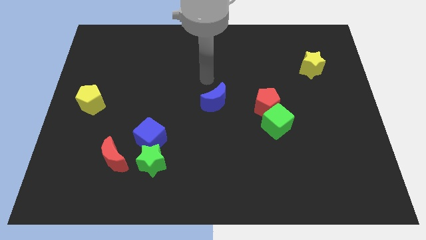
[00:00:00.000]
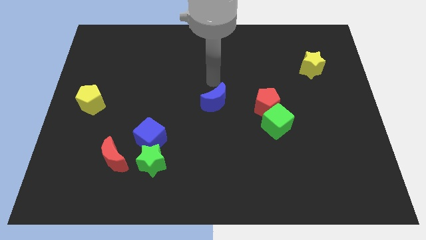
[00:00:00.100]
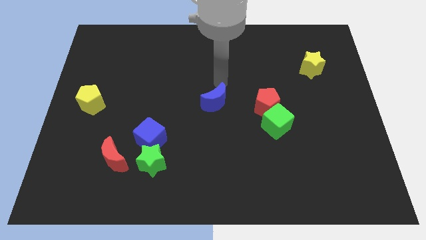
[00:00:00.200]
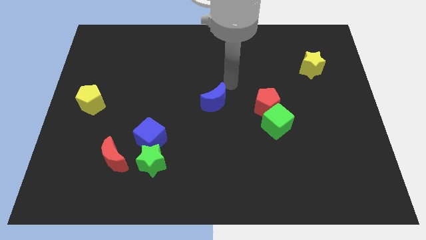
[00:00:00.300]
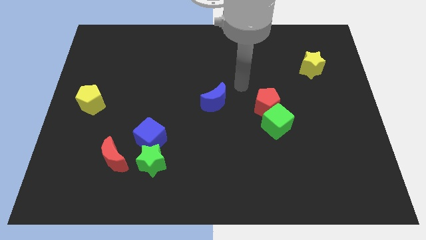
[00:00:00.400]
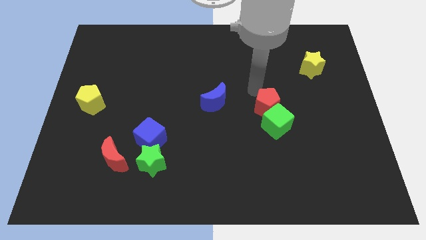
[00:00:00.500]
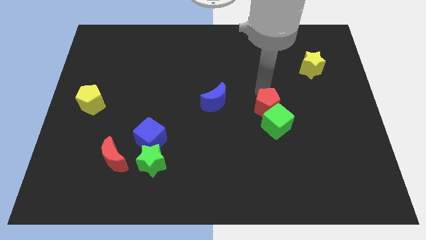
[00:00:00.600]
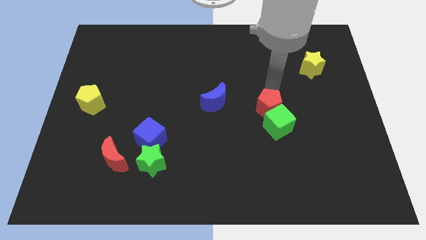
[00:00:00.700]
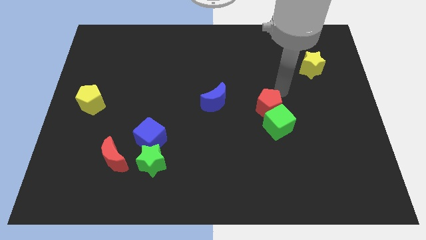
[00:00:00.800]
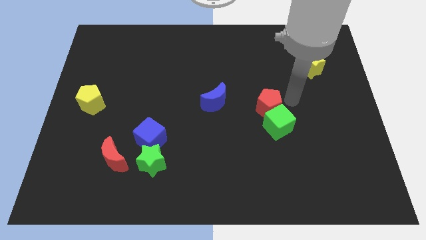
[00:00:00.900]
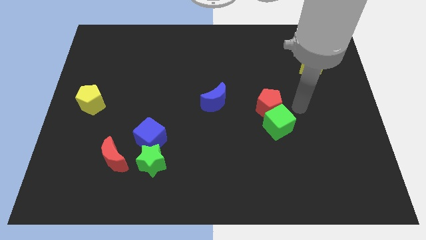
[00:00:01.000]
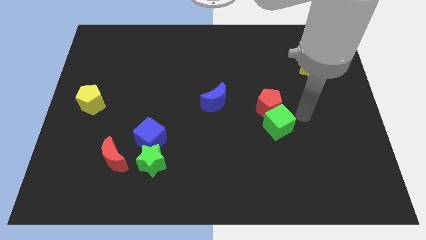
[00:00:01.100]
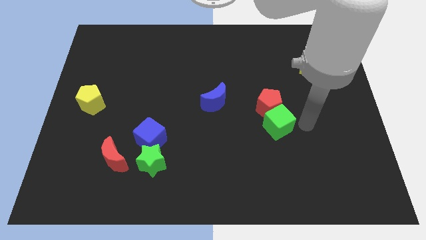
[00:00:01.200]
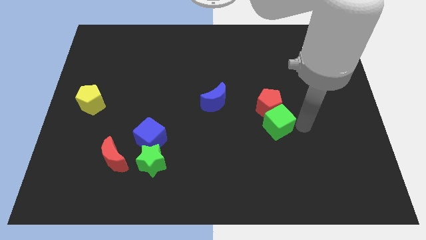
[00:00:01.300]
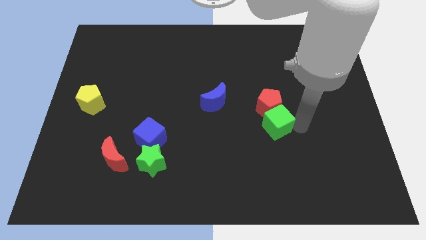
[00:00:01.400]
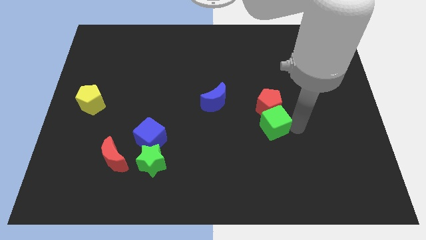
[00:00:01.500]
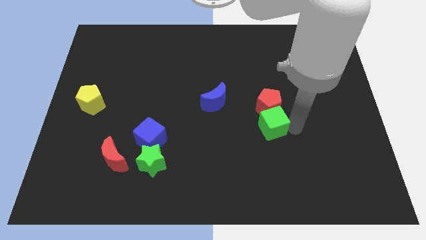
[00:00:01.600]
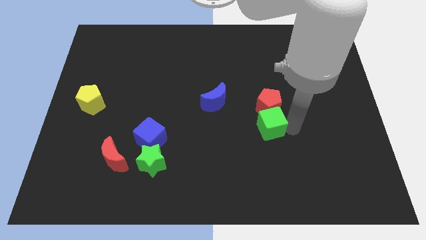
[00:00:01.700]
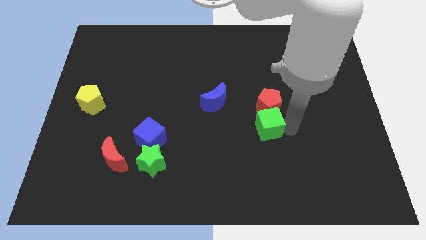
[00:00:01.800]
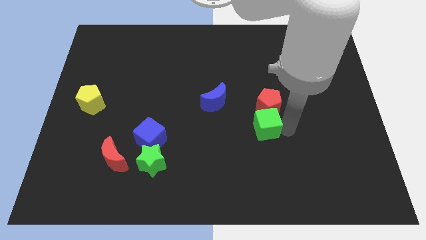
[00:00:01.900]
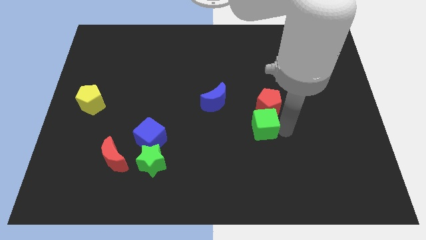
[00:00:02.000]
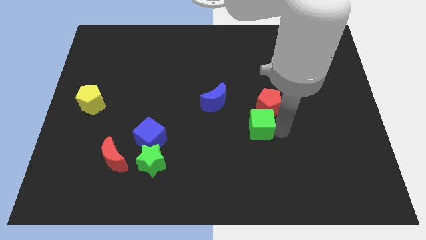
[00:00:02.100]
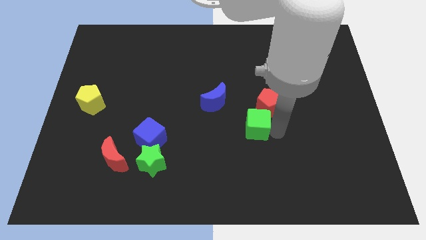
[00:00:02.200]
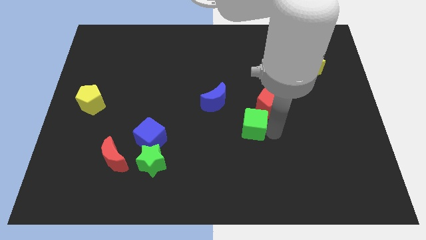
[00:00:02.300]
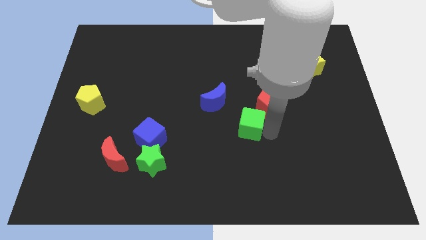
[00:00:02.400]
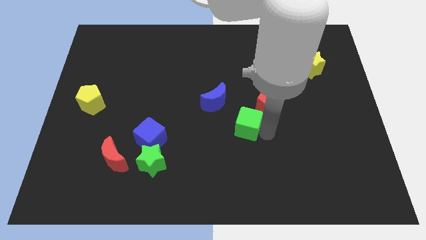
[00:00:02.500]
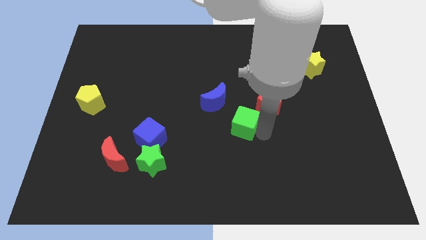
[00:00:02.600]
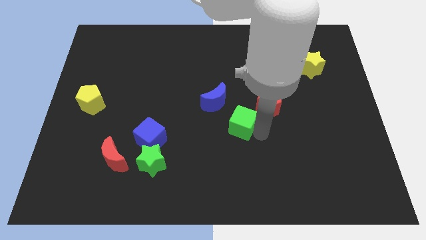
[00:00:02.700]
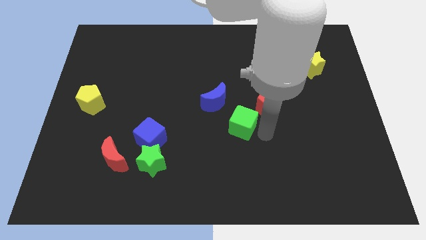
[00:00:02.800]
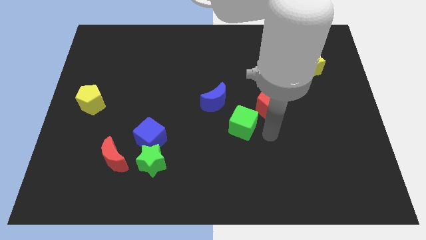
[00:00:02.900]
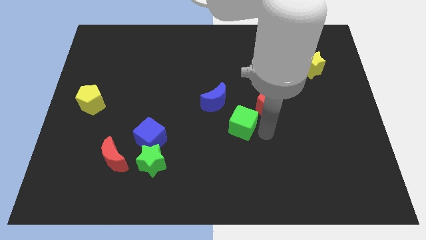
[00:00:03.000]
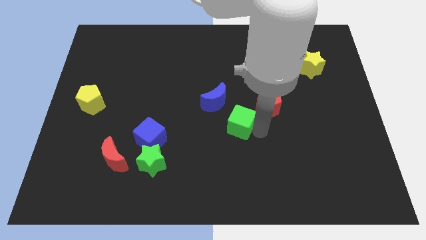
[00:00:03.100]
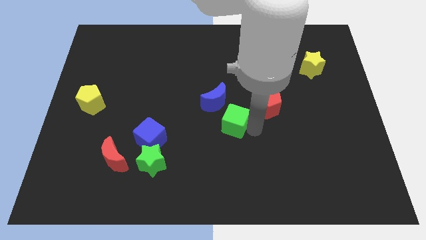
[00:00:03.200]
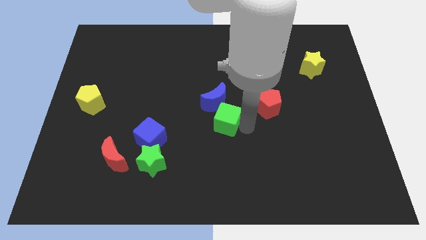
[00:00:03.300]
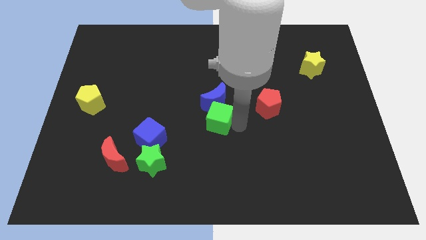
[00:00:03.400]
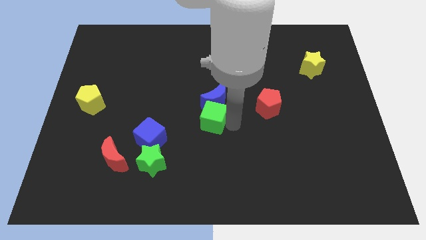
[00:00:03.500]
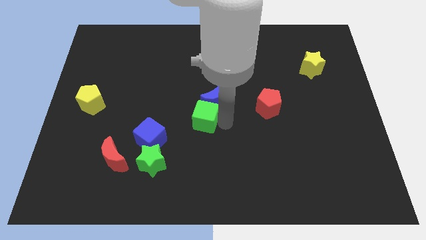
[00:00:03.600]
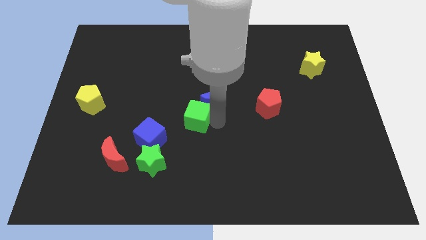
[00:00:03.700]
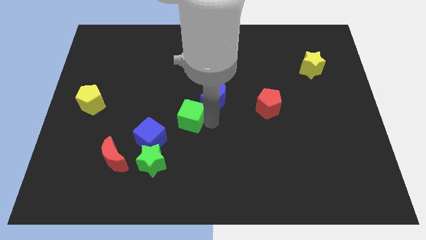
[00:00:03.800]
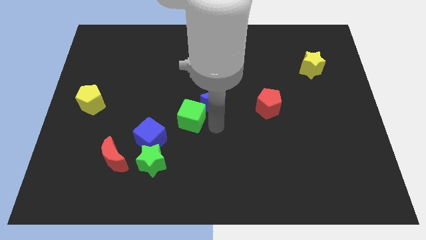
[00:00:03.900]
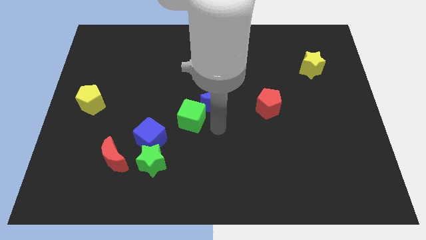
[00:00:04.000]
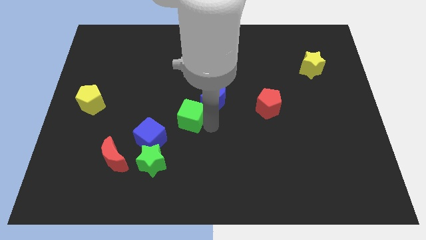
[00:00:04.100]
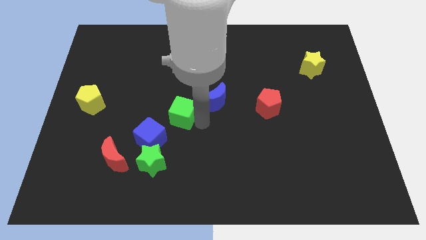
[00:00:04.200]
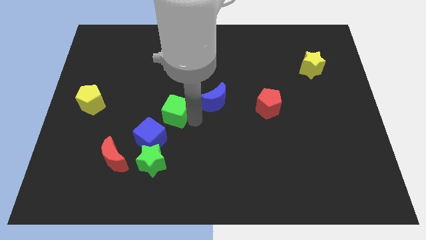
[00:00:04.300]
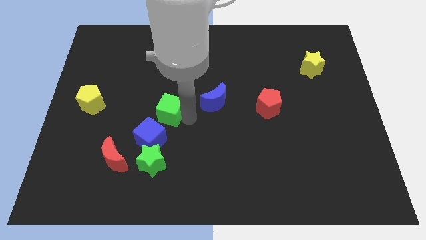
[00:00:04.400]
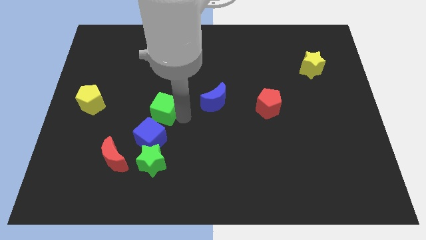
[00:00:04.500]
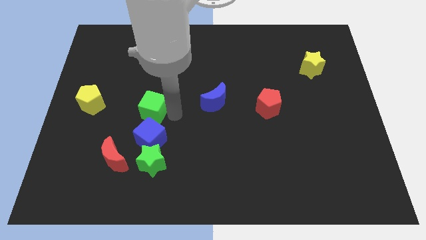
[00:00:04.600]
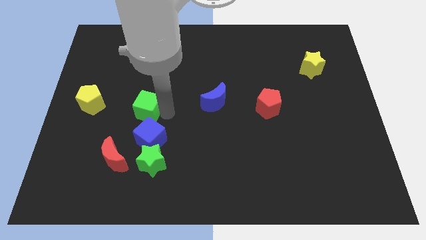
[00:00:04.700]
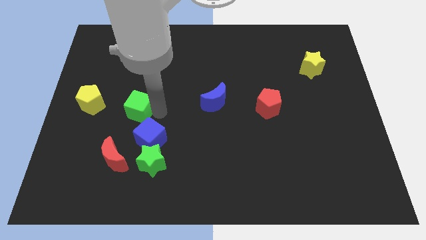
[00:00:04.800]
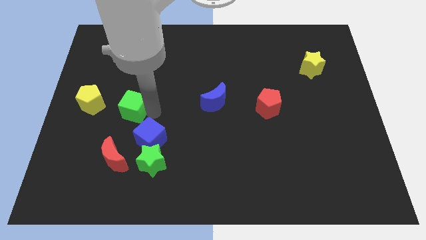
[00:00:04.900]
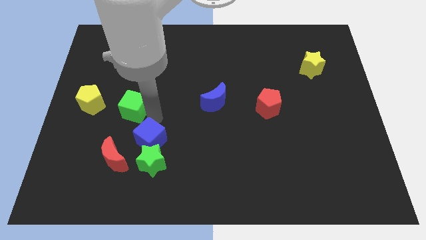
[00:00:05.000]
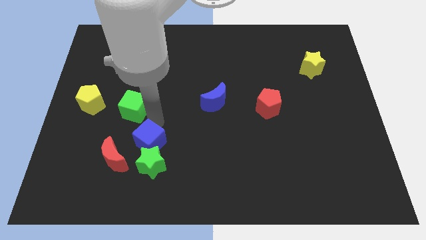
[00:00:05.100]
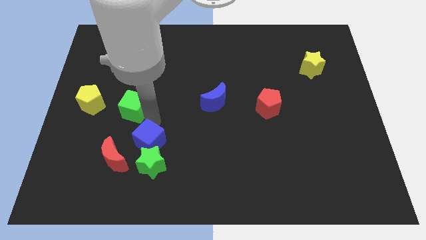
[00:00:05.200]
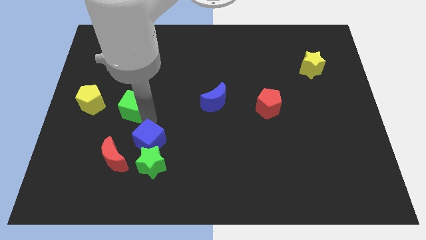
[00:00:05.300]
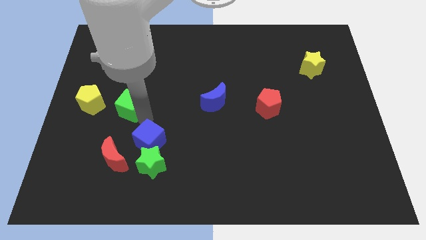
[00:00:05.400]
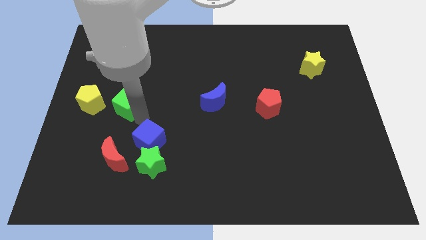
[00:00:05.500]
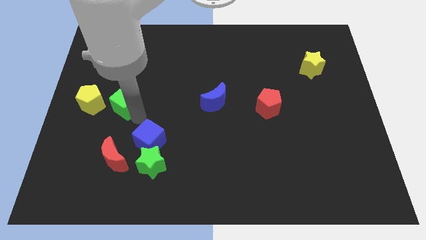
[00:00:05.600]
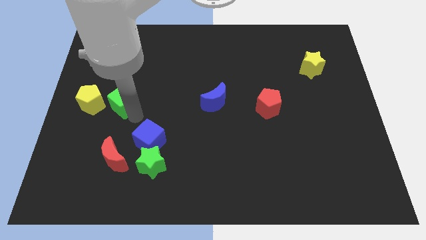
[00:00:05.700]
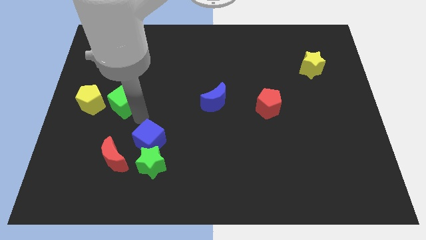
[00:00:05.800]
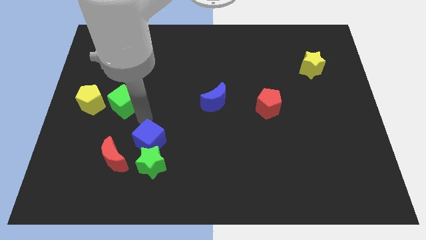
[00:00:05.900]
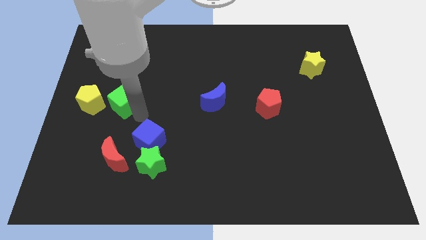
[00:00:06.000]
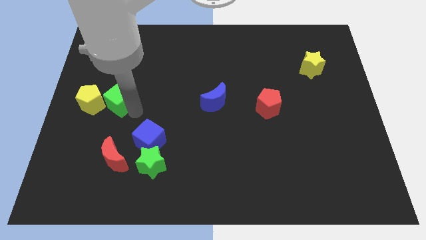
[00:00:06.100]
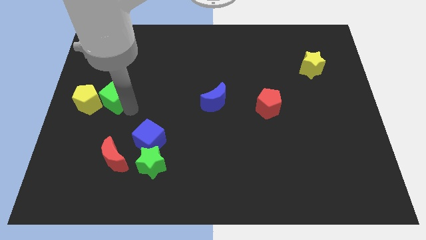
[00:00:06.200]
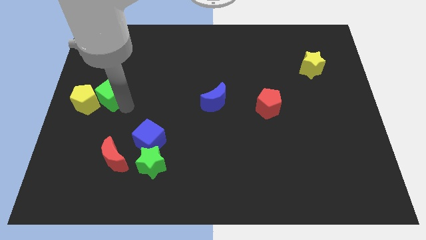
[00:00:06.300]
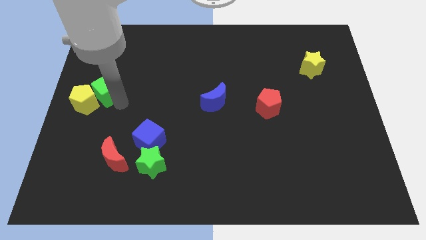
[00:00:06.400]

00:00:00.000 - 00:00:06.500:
move the green cube to the left side
